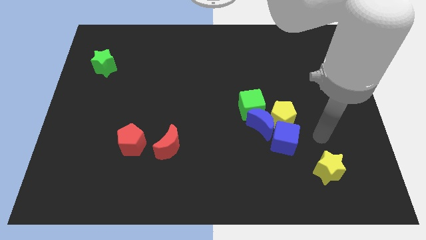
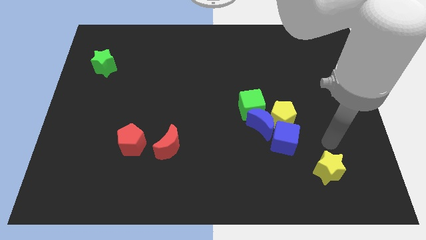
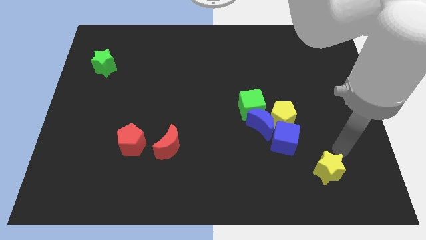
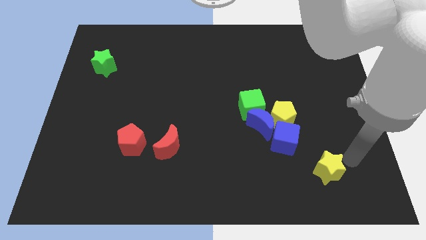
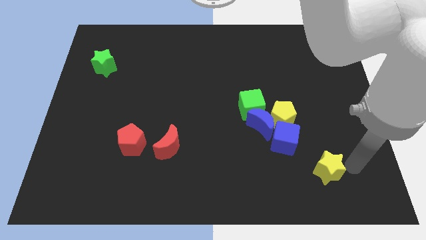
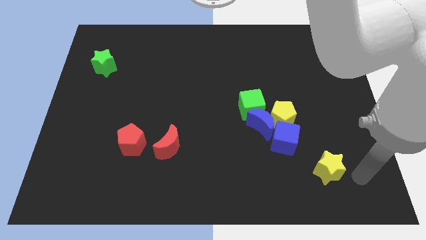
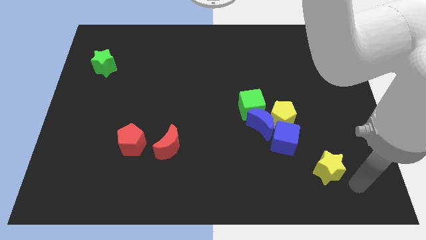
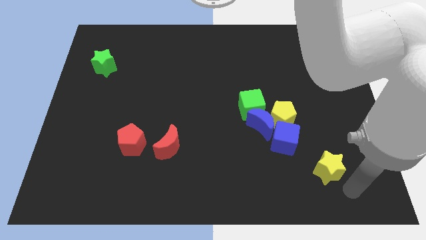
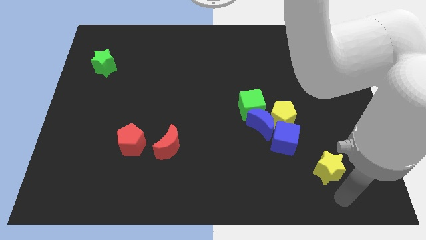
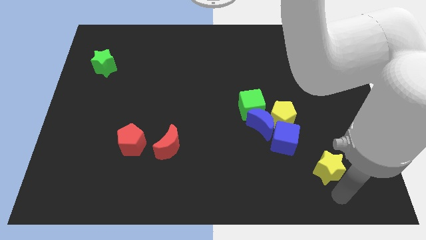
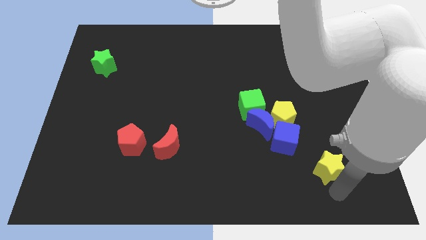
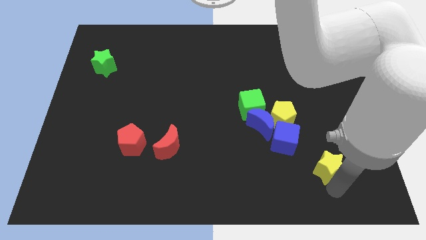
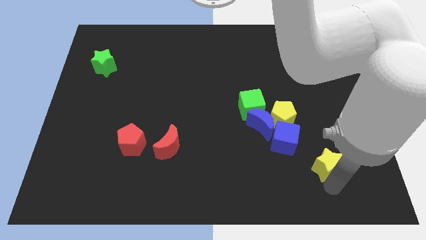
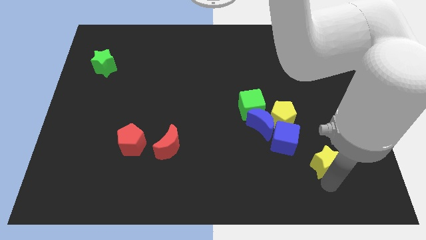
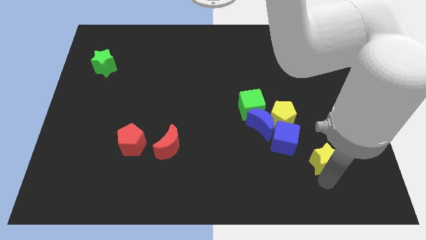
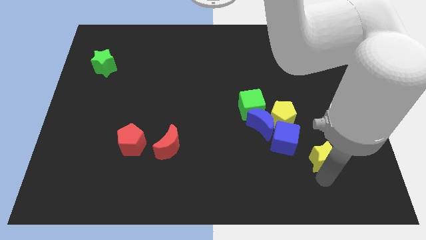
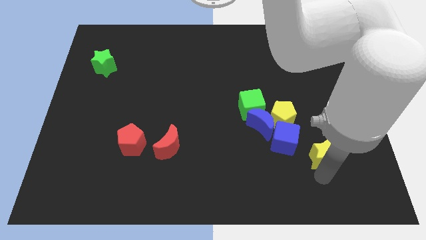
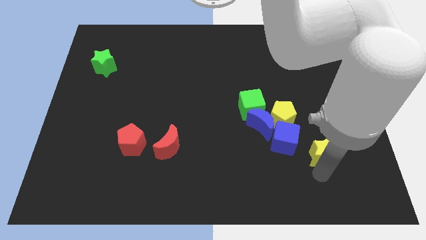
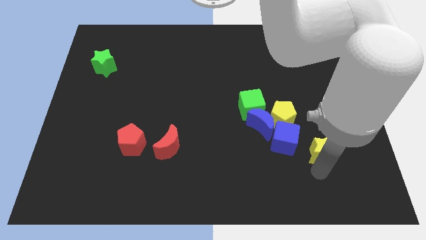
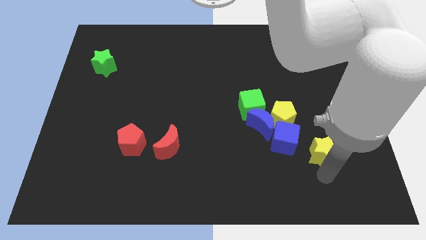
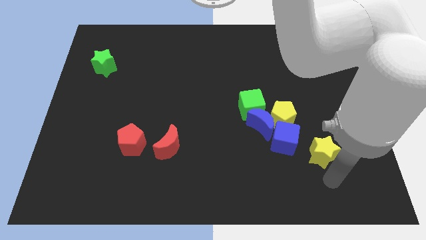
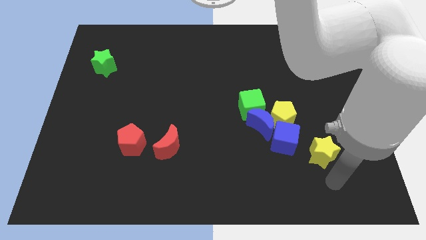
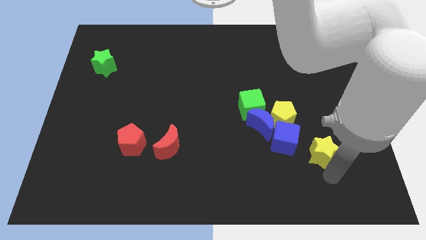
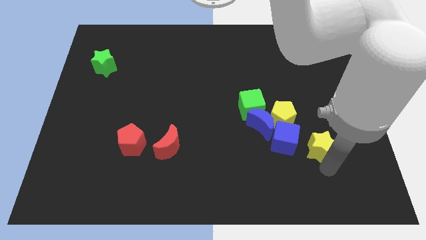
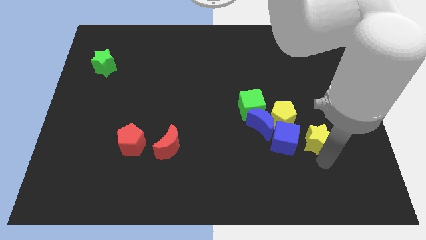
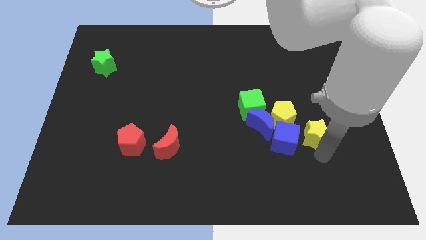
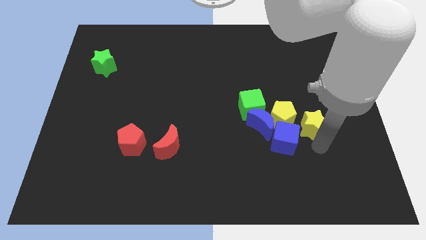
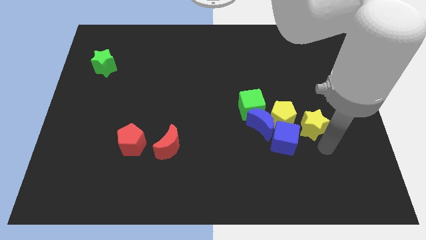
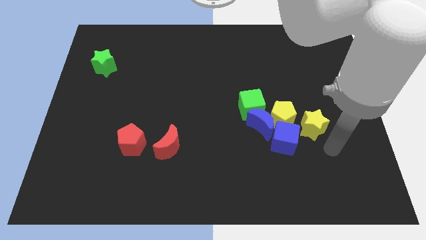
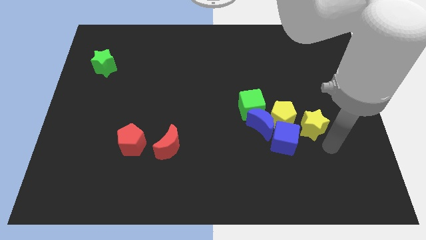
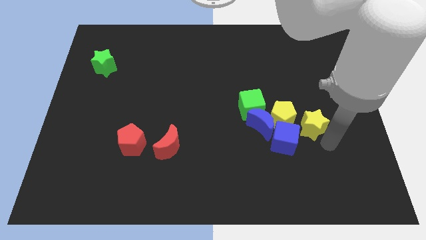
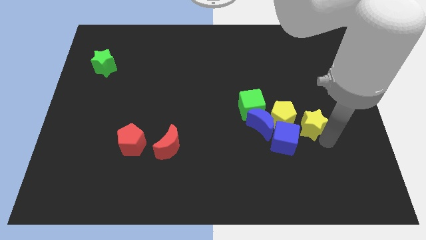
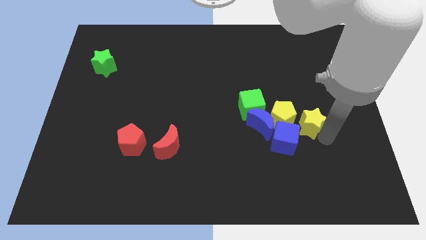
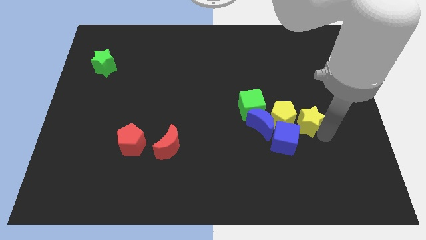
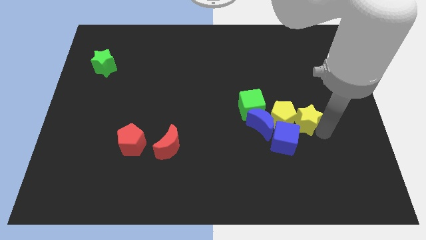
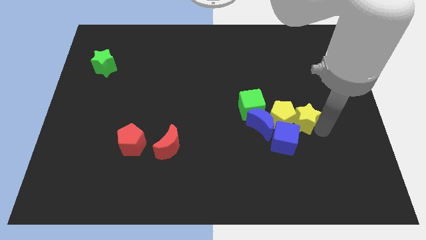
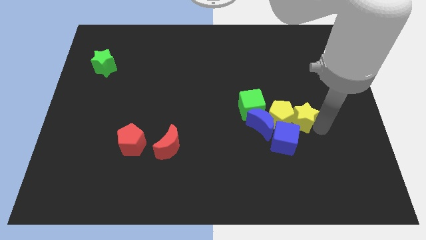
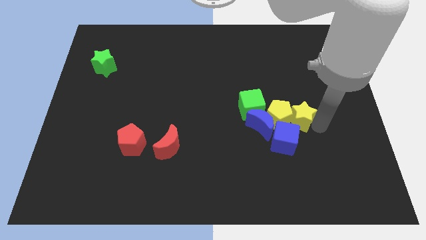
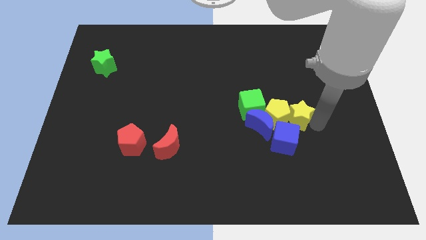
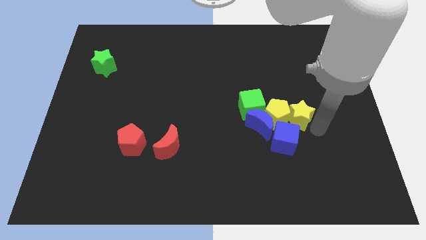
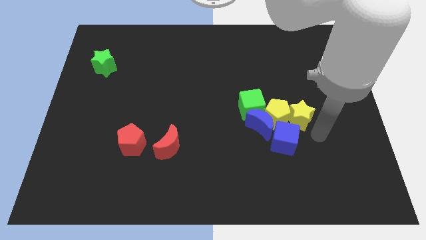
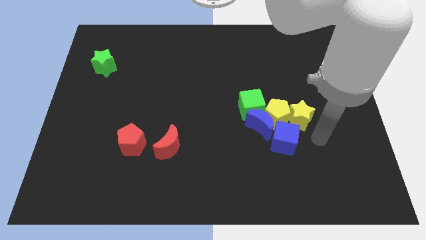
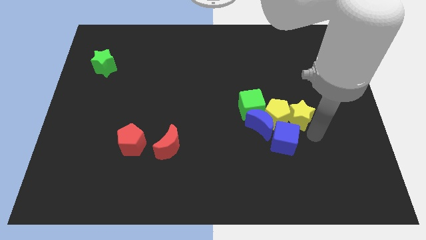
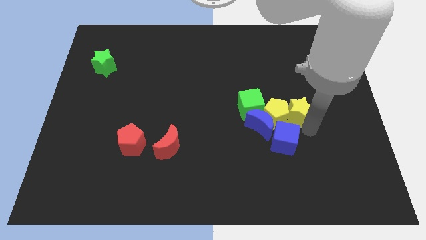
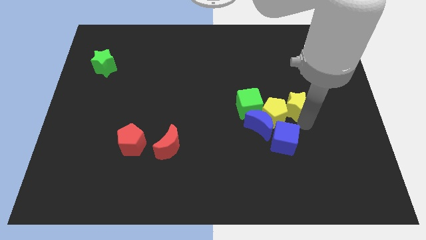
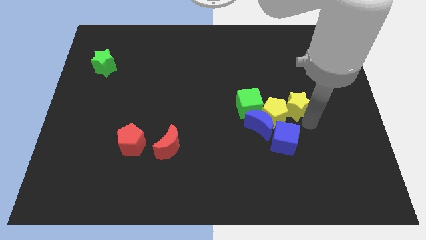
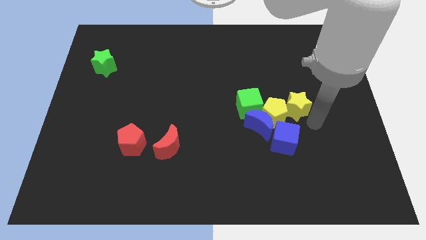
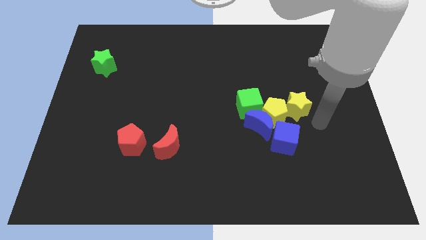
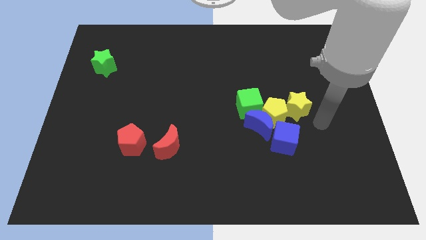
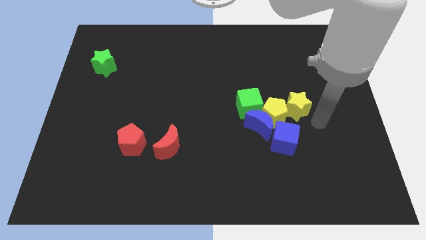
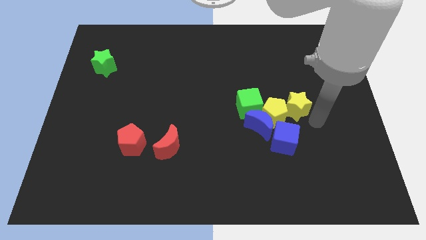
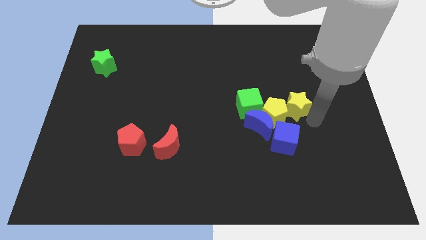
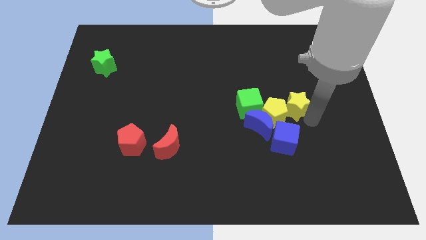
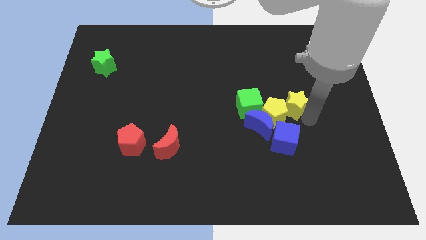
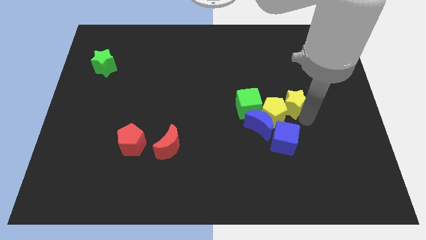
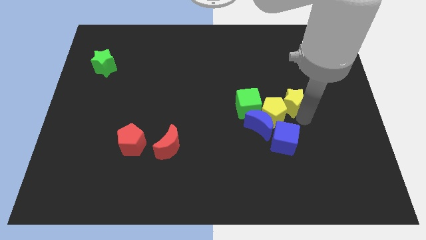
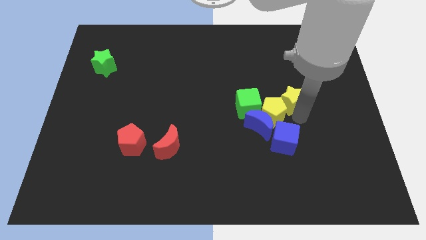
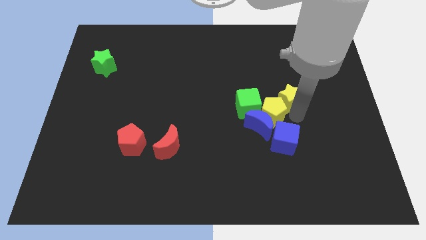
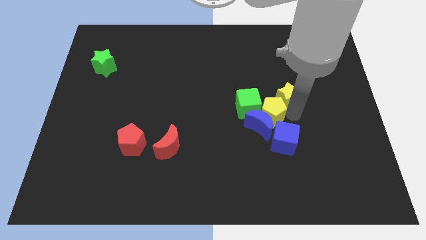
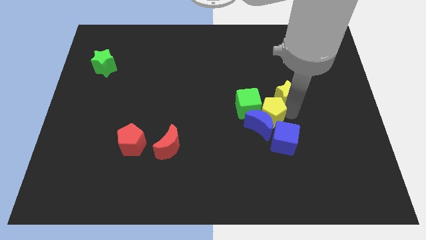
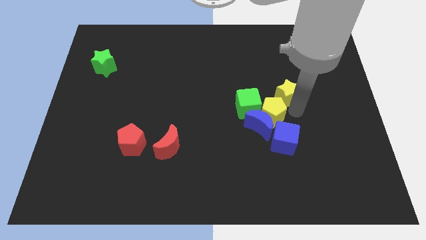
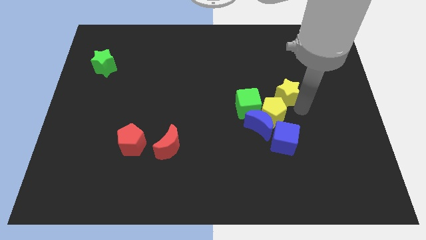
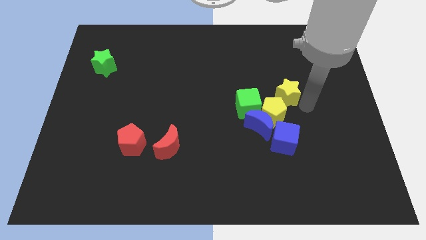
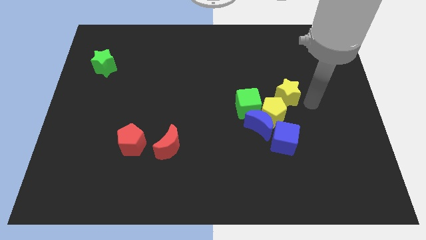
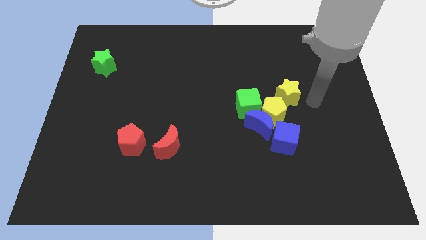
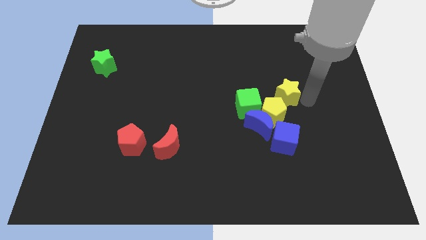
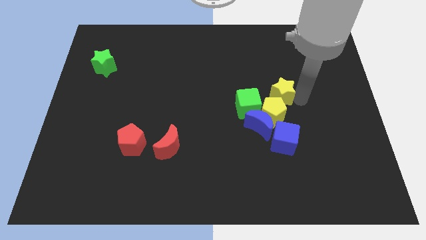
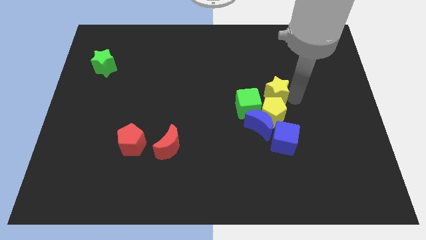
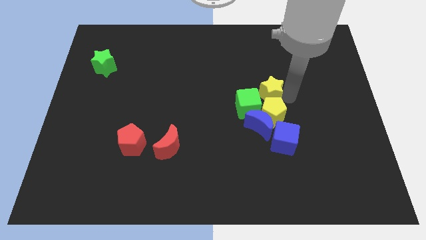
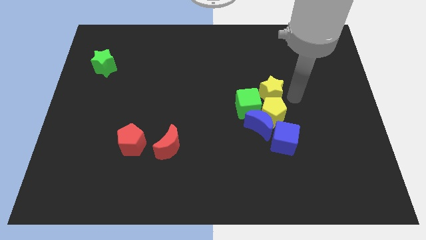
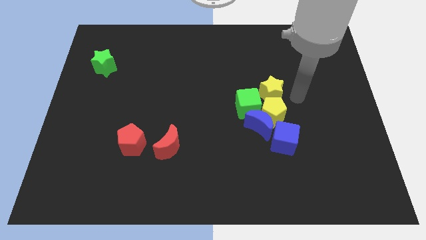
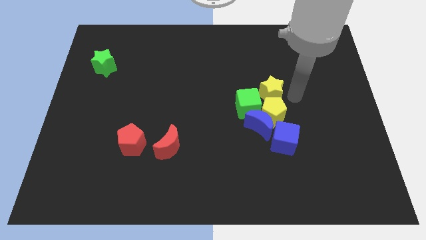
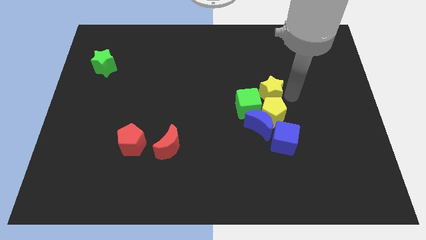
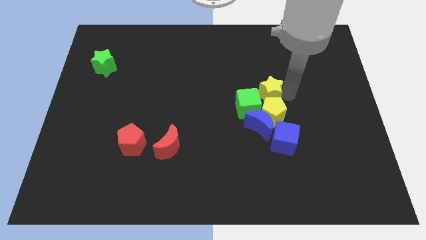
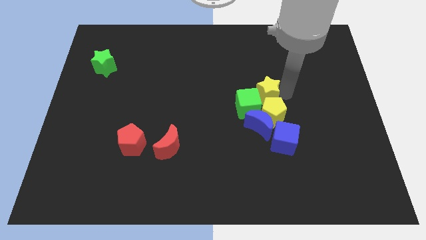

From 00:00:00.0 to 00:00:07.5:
move the yellow star upwards and to the left diagonally

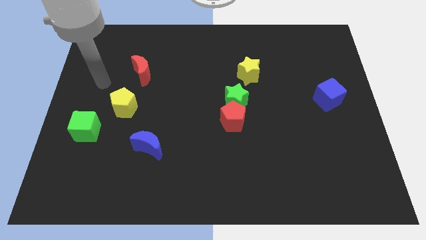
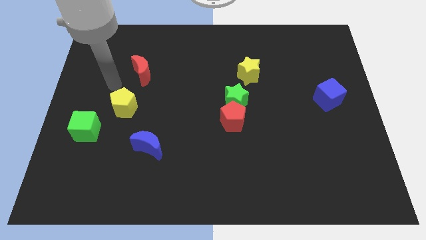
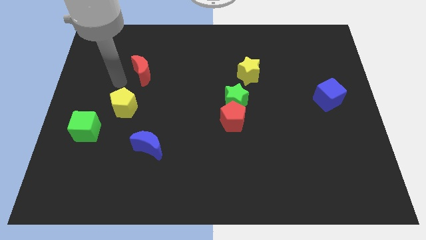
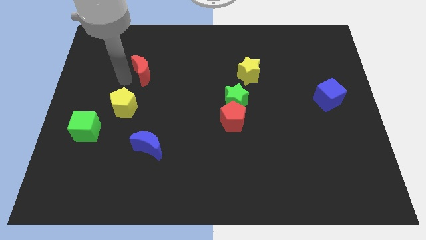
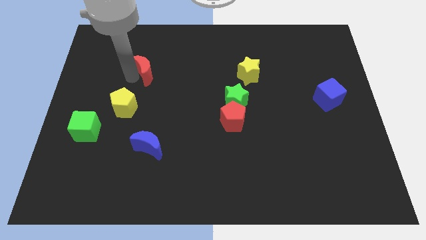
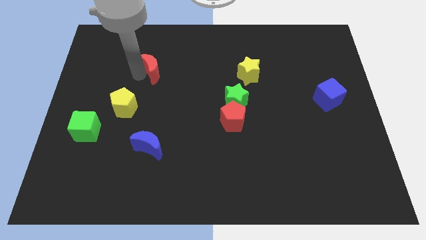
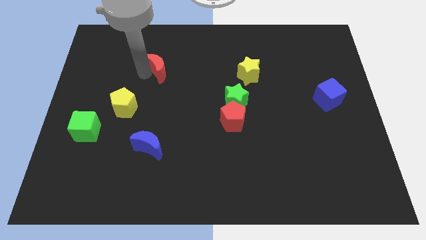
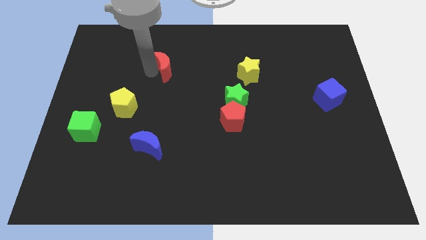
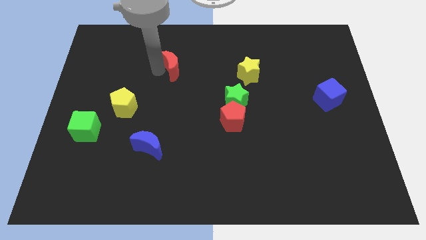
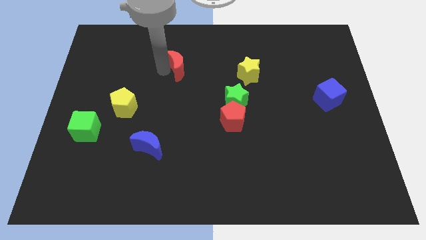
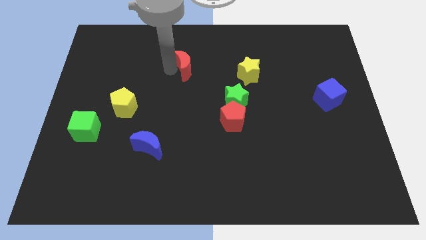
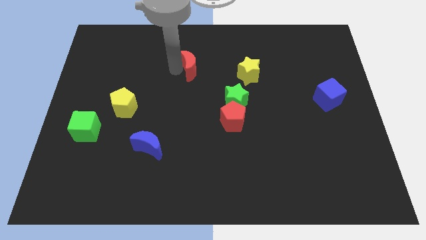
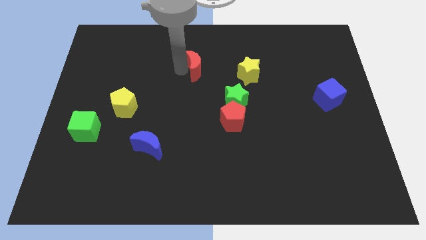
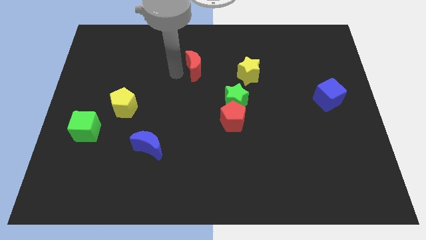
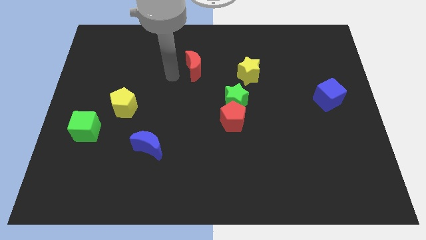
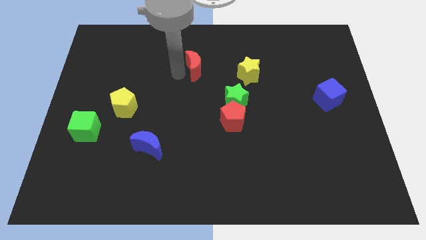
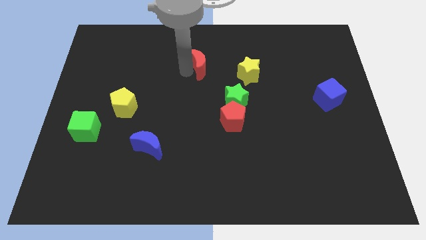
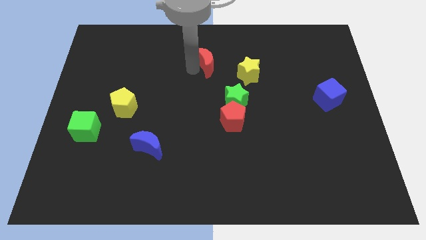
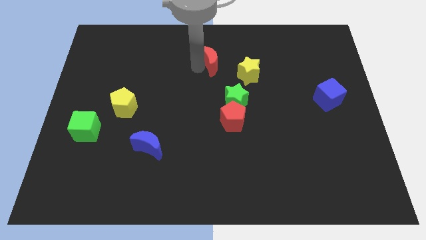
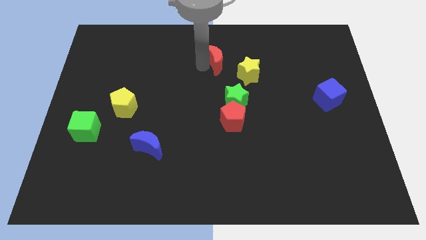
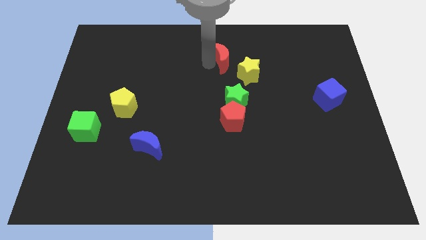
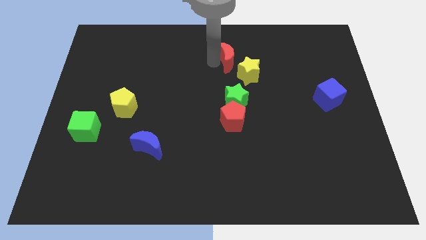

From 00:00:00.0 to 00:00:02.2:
push the red moon right
